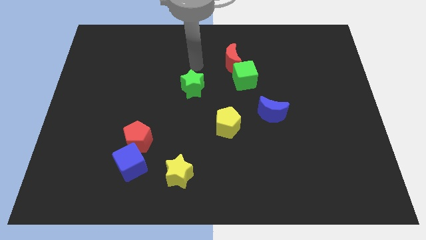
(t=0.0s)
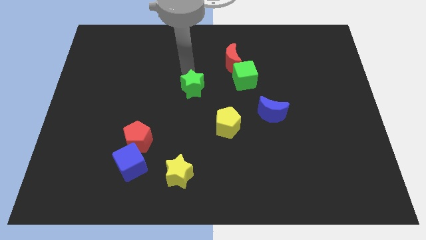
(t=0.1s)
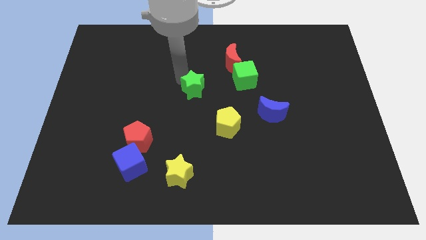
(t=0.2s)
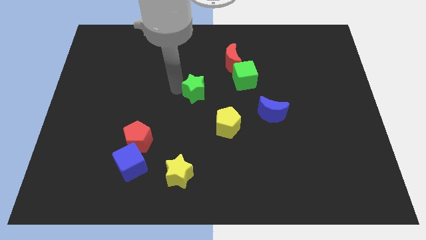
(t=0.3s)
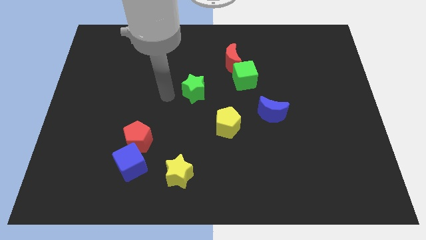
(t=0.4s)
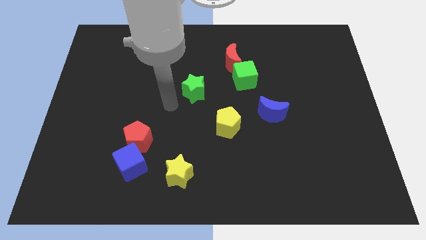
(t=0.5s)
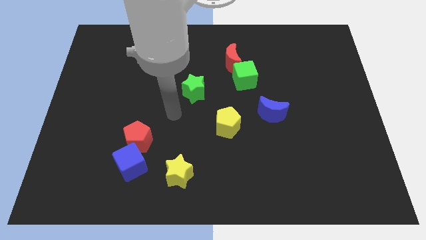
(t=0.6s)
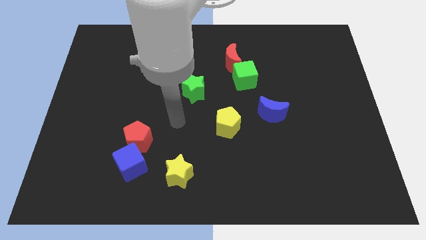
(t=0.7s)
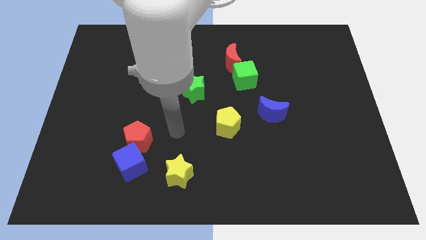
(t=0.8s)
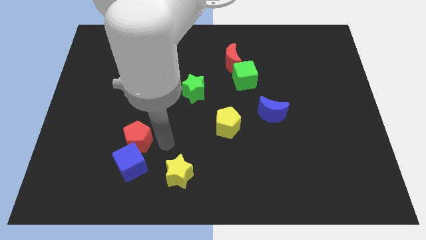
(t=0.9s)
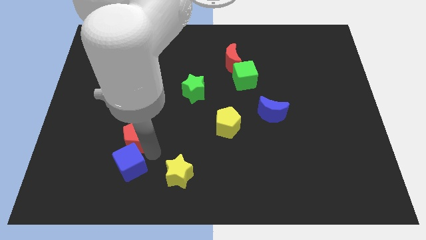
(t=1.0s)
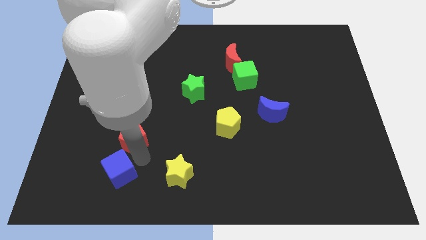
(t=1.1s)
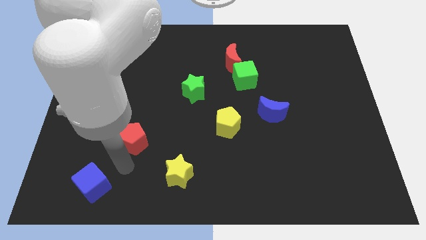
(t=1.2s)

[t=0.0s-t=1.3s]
pull the red pentagon apart from the blue cube

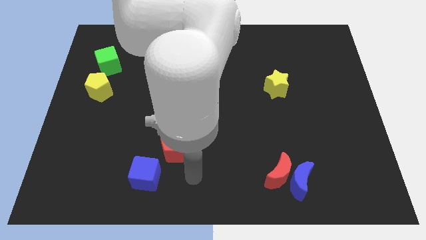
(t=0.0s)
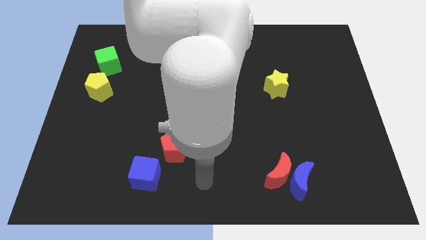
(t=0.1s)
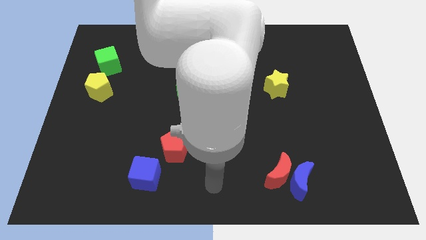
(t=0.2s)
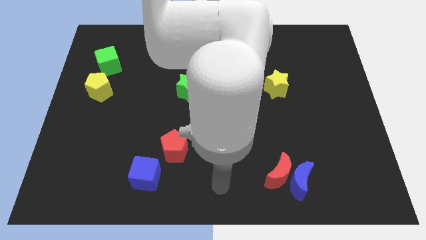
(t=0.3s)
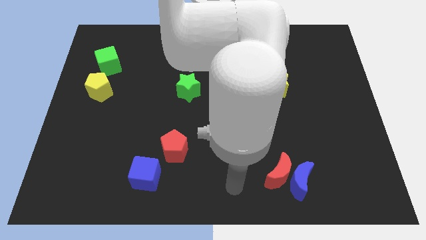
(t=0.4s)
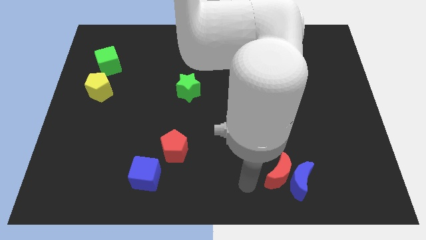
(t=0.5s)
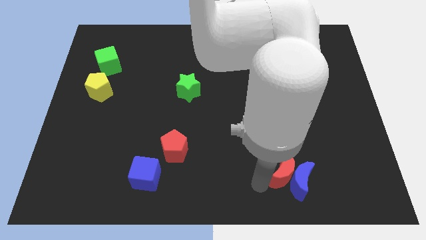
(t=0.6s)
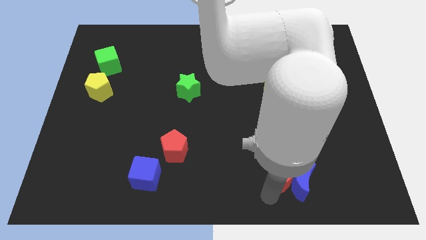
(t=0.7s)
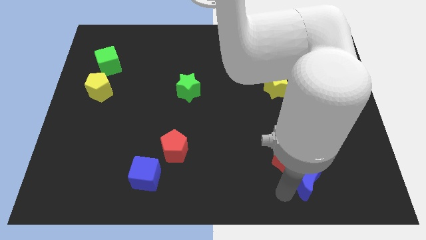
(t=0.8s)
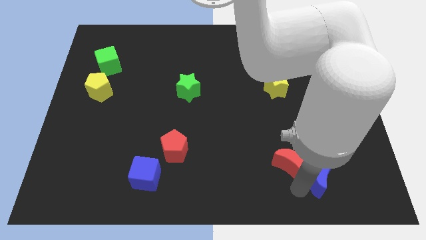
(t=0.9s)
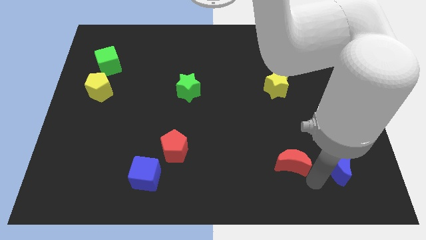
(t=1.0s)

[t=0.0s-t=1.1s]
separate the red moon from the blue moon

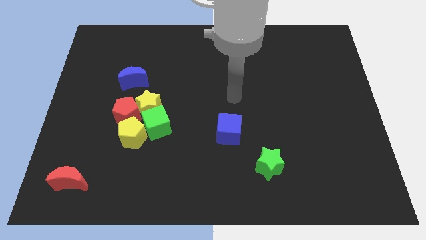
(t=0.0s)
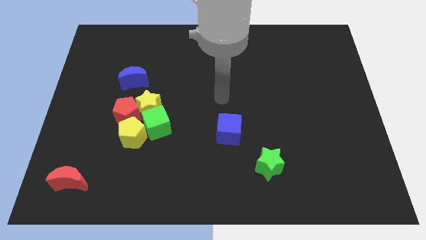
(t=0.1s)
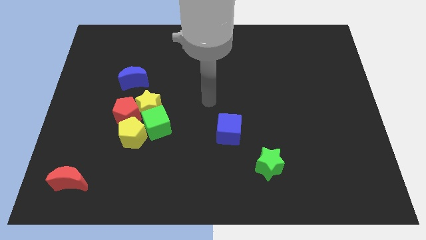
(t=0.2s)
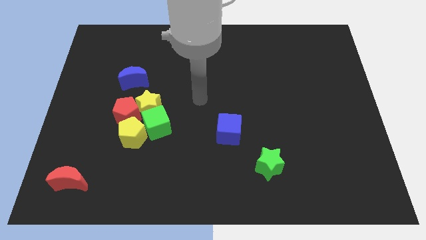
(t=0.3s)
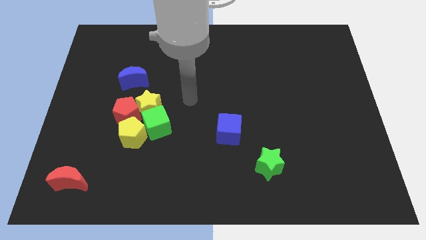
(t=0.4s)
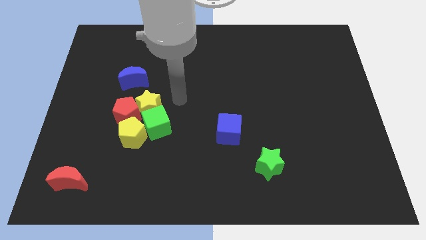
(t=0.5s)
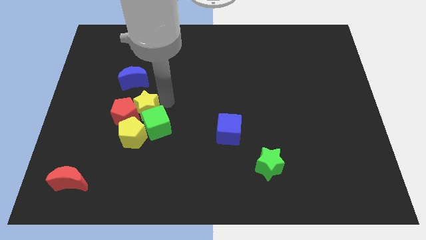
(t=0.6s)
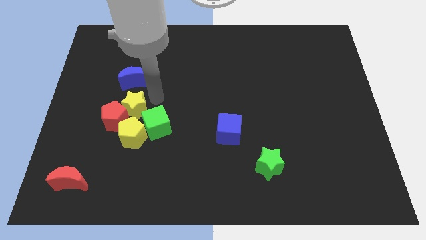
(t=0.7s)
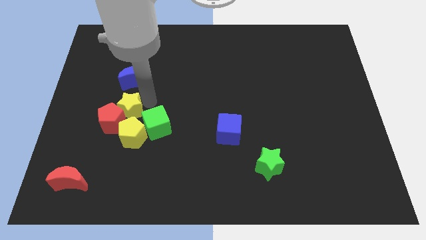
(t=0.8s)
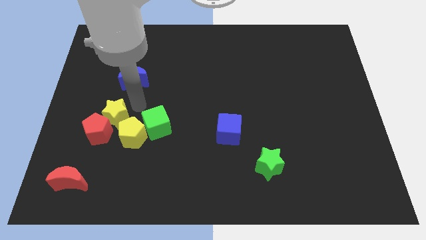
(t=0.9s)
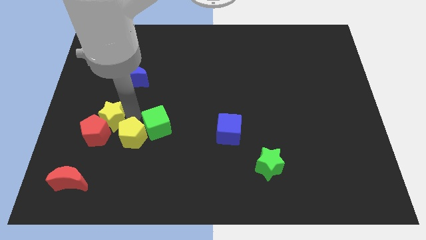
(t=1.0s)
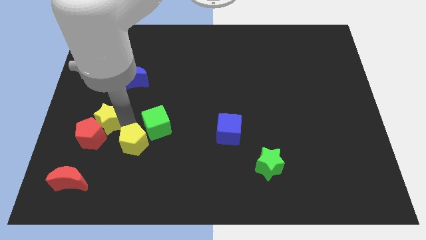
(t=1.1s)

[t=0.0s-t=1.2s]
pull the green cube apart from the group

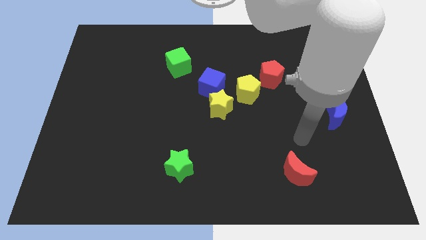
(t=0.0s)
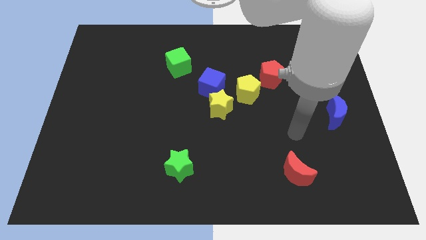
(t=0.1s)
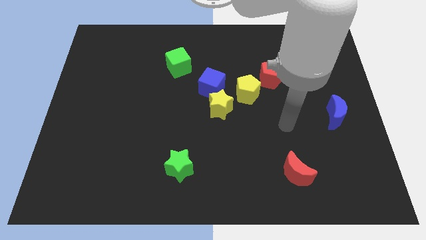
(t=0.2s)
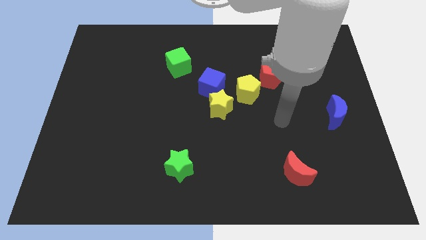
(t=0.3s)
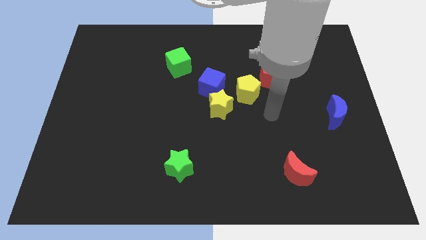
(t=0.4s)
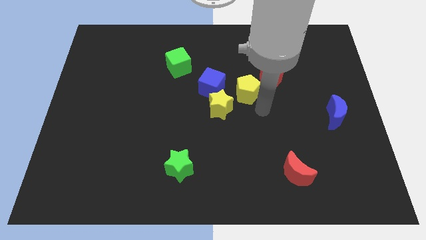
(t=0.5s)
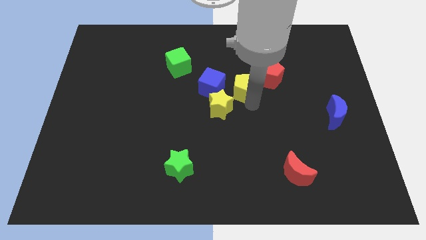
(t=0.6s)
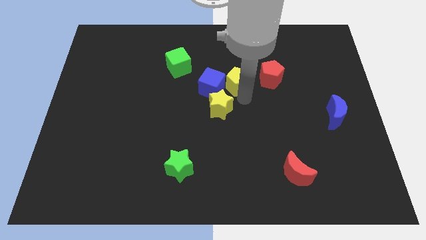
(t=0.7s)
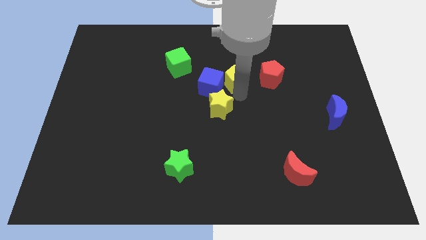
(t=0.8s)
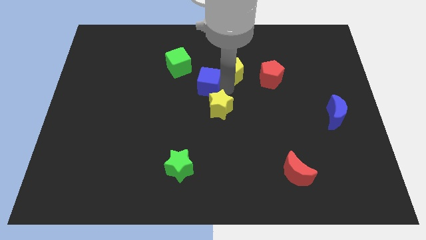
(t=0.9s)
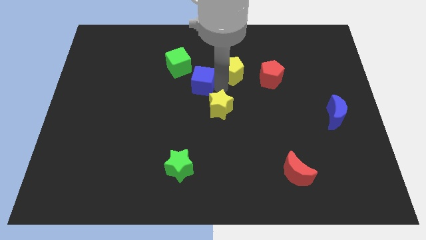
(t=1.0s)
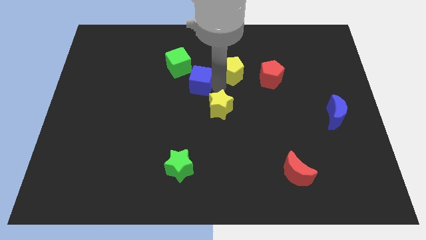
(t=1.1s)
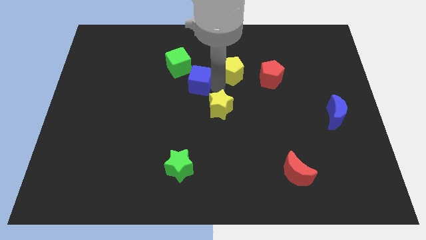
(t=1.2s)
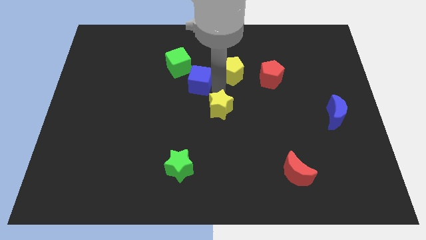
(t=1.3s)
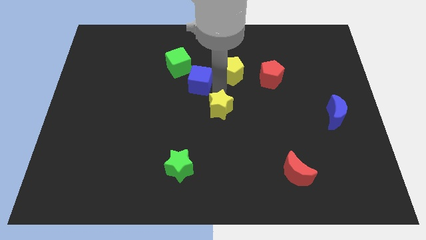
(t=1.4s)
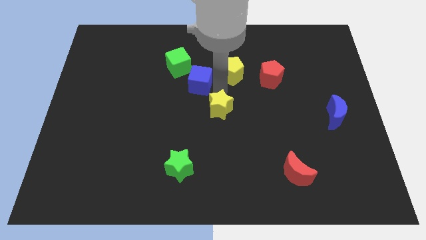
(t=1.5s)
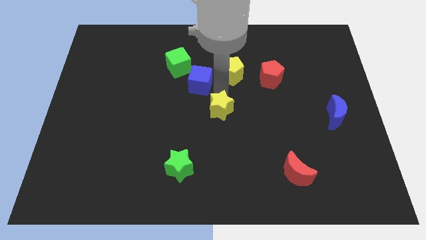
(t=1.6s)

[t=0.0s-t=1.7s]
separate the yellow star from the blue cube and yellow pentagon

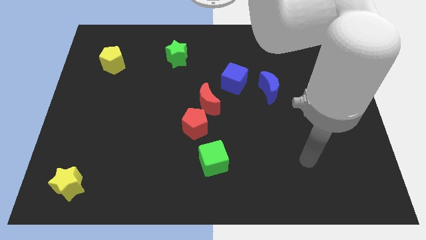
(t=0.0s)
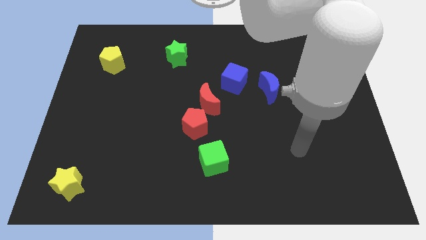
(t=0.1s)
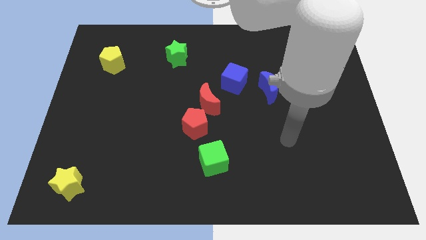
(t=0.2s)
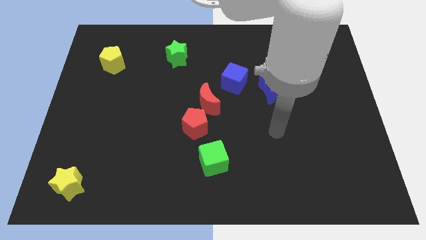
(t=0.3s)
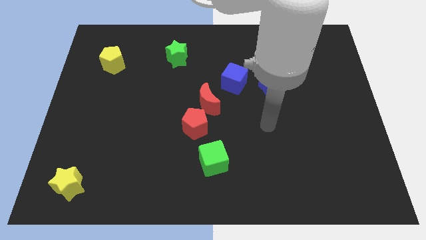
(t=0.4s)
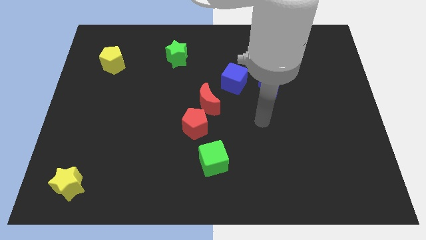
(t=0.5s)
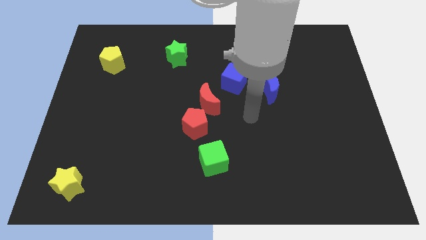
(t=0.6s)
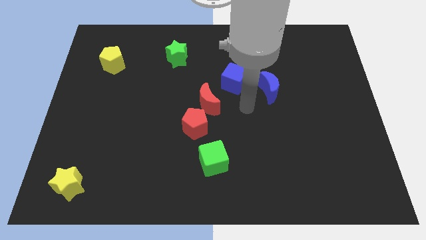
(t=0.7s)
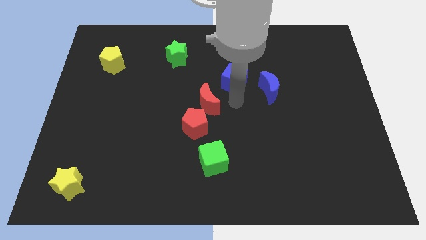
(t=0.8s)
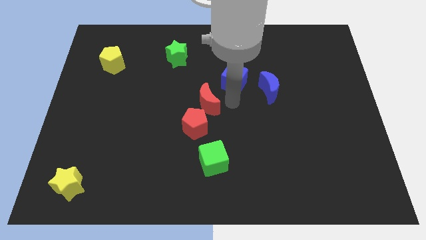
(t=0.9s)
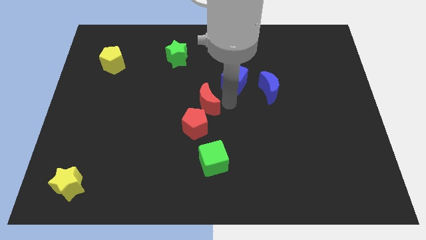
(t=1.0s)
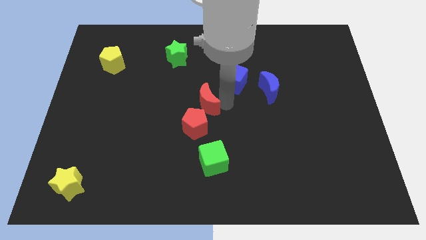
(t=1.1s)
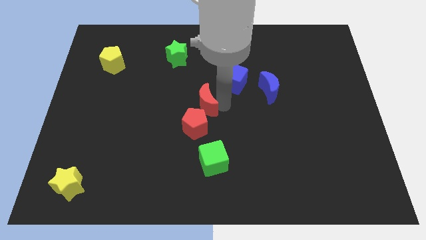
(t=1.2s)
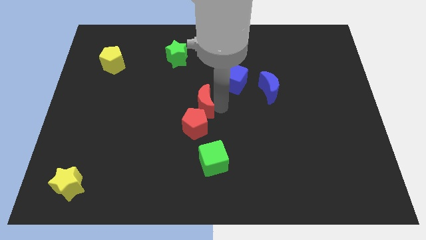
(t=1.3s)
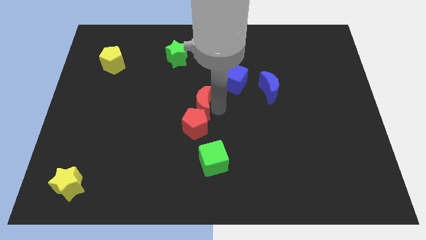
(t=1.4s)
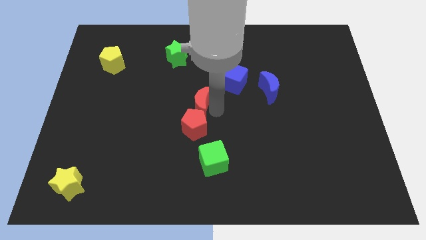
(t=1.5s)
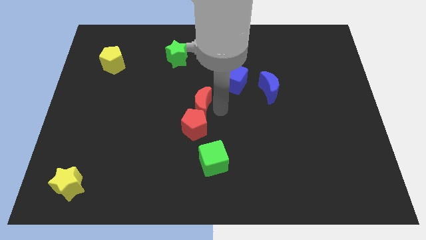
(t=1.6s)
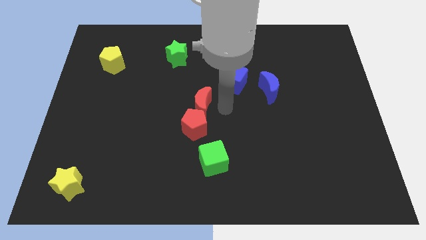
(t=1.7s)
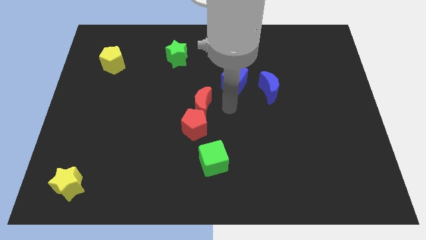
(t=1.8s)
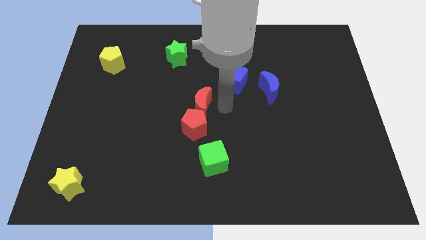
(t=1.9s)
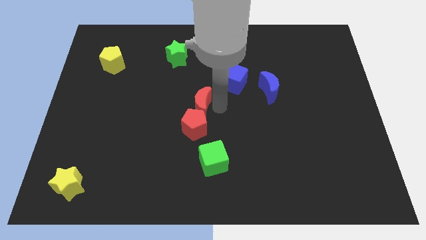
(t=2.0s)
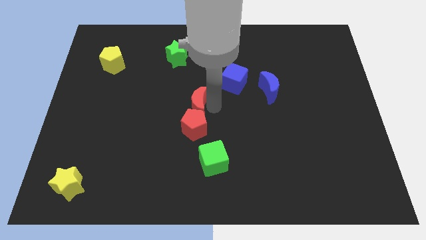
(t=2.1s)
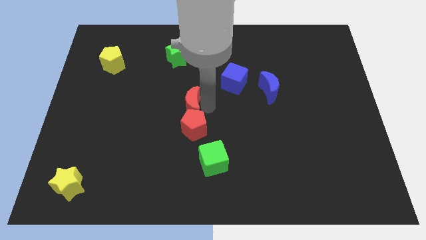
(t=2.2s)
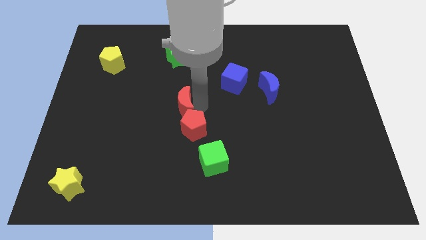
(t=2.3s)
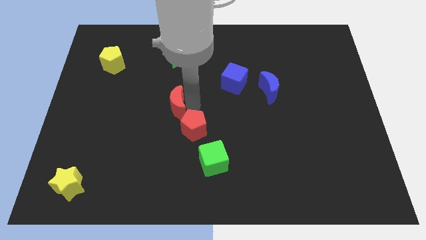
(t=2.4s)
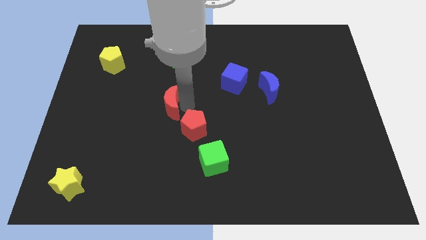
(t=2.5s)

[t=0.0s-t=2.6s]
pull the red moon apart from the red pentagon and blue cube

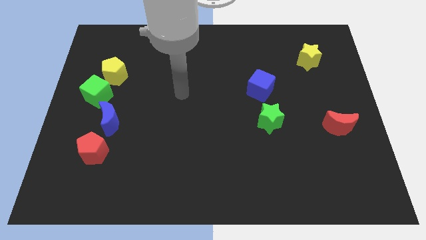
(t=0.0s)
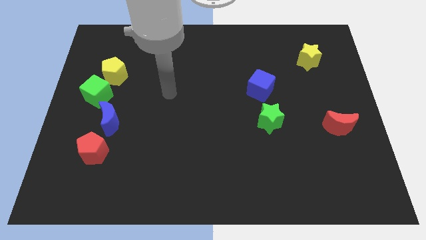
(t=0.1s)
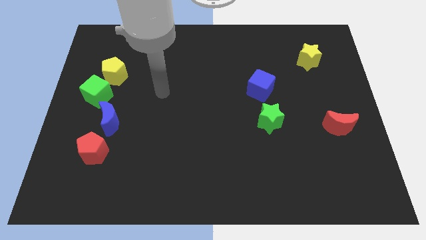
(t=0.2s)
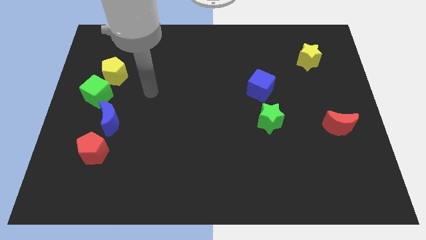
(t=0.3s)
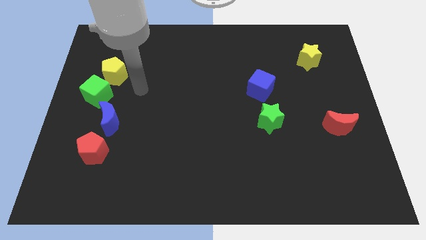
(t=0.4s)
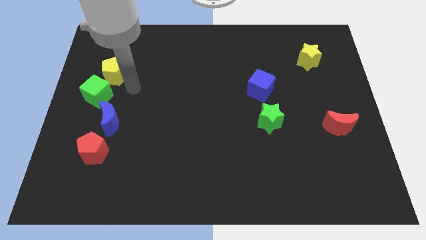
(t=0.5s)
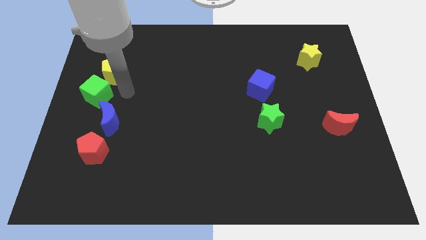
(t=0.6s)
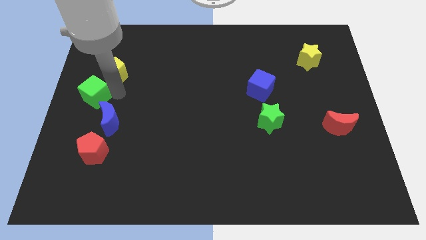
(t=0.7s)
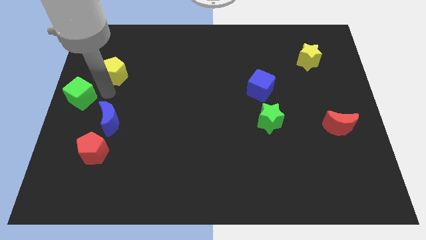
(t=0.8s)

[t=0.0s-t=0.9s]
pull the yellow pentagon apart from the green cube

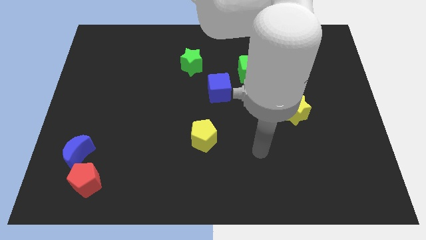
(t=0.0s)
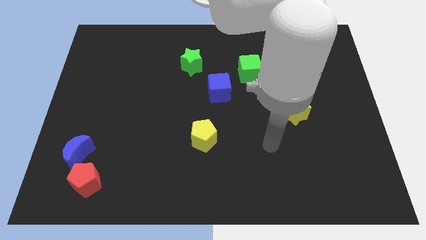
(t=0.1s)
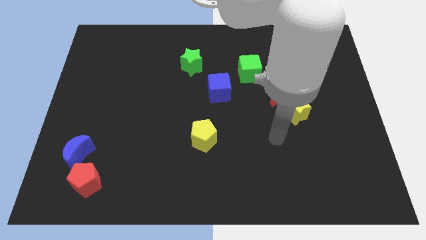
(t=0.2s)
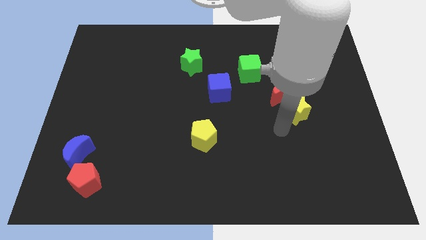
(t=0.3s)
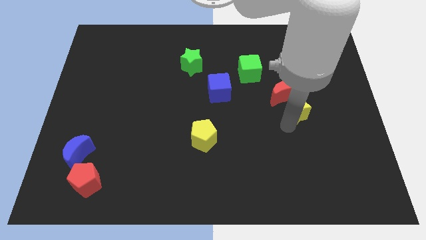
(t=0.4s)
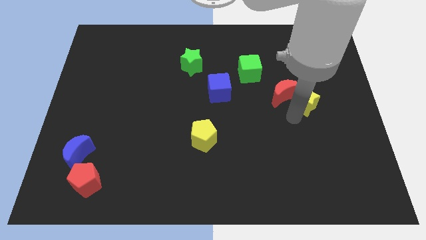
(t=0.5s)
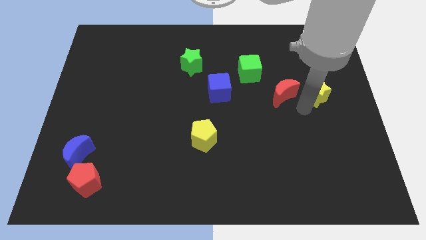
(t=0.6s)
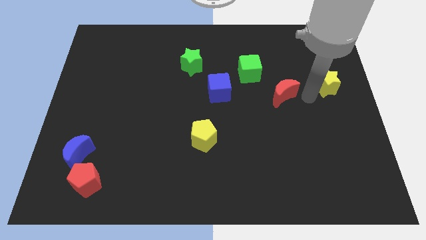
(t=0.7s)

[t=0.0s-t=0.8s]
move the red moon away from the yellow star
